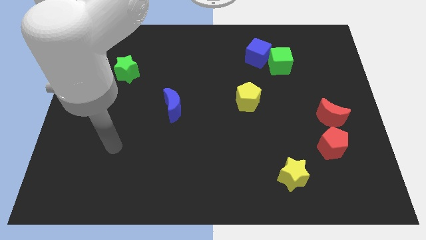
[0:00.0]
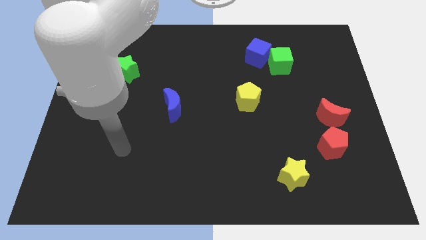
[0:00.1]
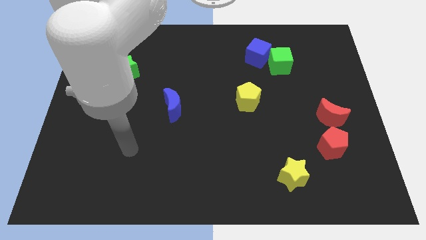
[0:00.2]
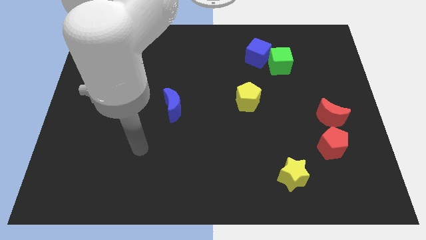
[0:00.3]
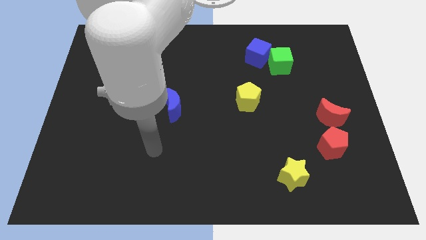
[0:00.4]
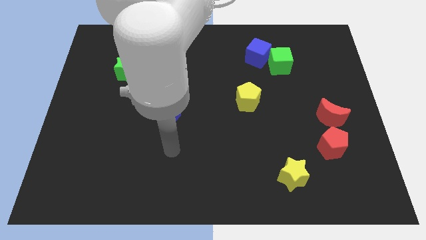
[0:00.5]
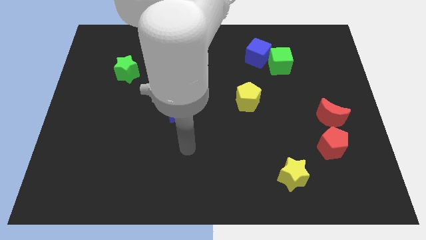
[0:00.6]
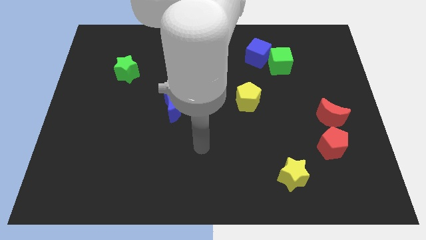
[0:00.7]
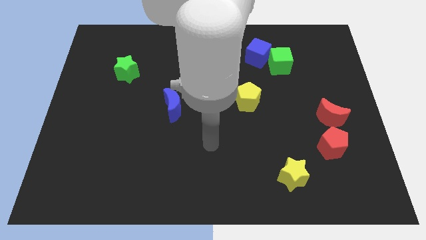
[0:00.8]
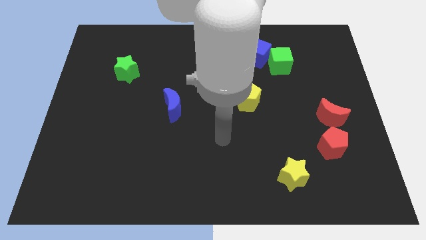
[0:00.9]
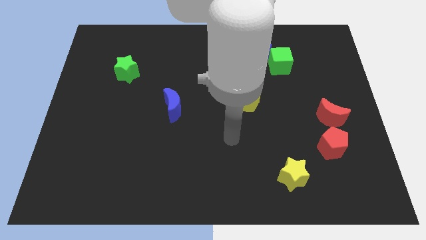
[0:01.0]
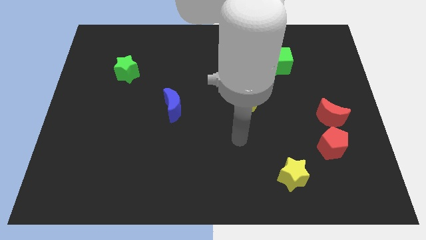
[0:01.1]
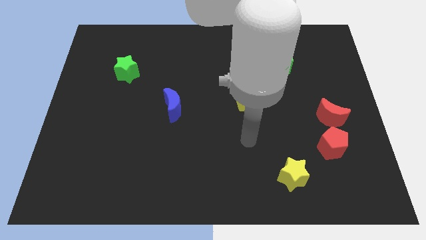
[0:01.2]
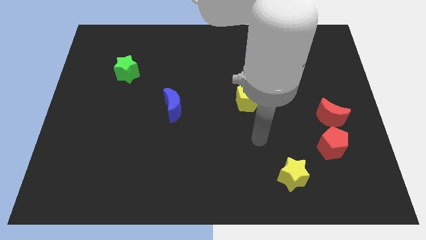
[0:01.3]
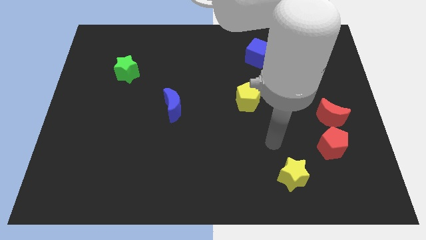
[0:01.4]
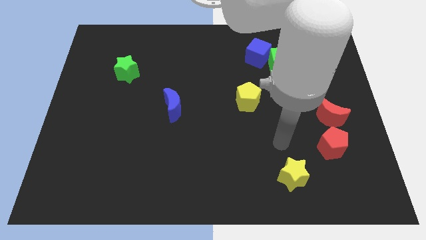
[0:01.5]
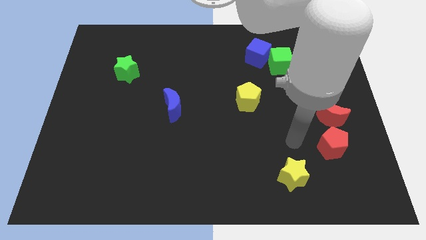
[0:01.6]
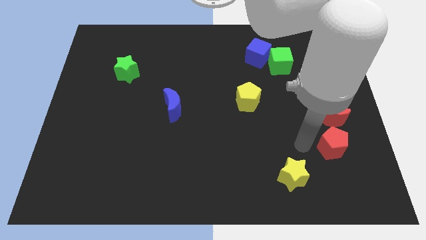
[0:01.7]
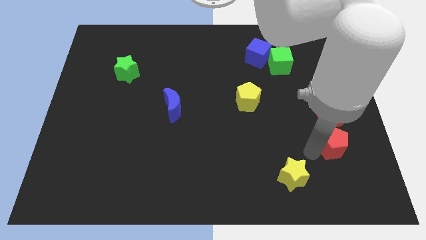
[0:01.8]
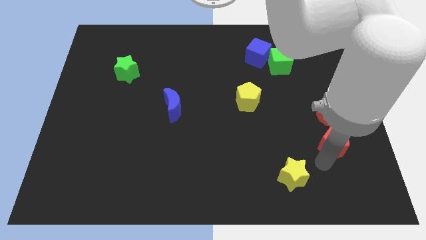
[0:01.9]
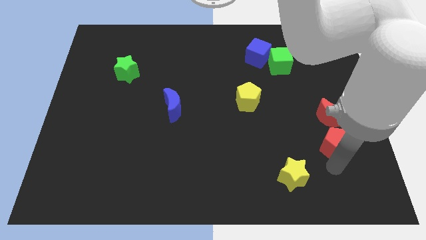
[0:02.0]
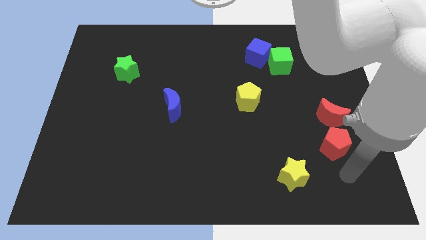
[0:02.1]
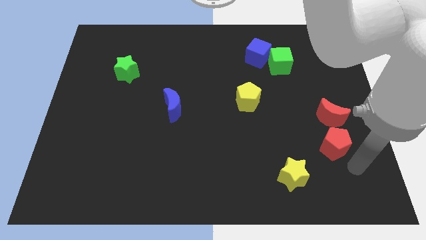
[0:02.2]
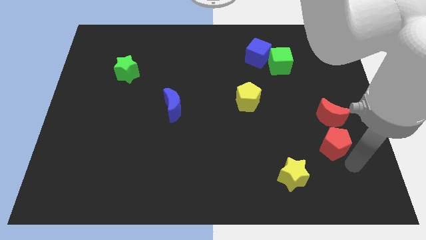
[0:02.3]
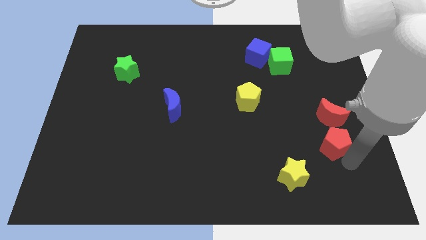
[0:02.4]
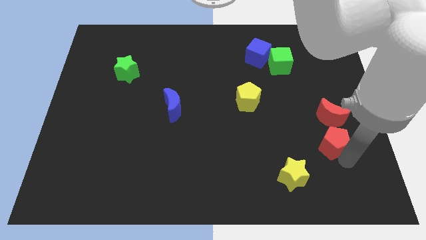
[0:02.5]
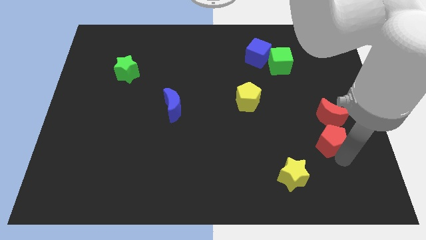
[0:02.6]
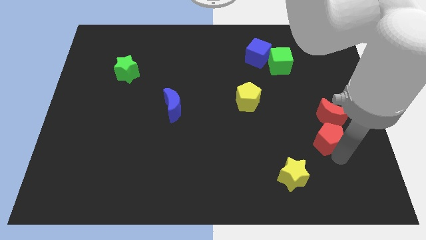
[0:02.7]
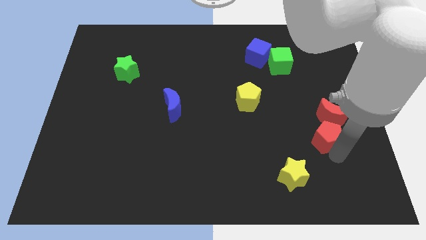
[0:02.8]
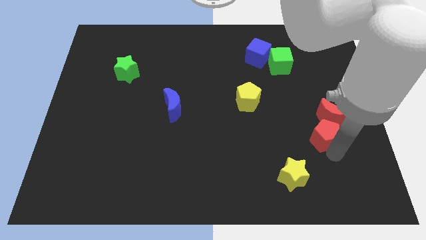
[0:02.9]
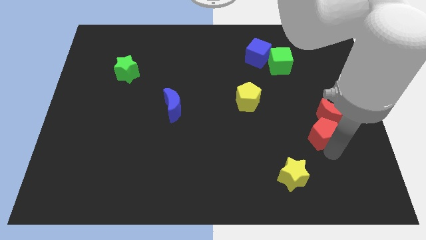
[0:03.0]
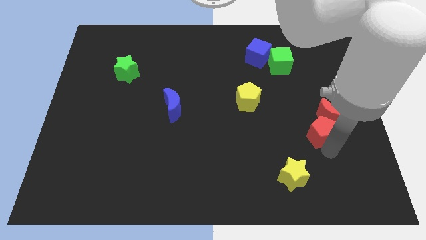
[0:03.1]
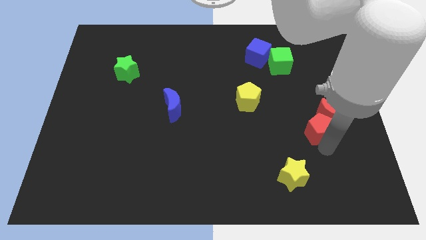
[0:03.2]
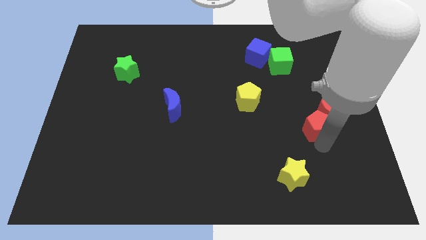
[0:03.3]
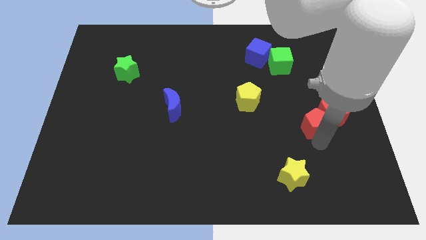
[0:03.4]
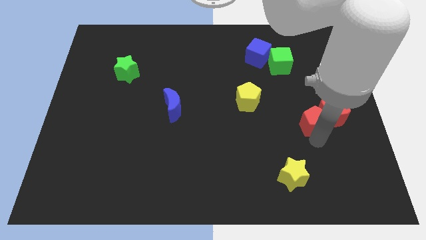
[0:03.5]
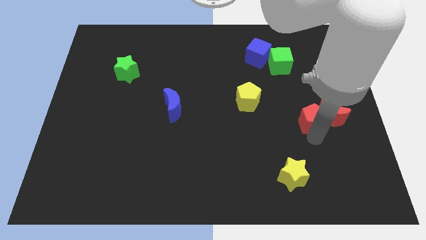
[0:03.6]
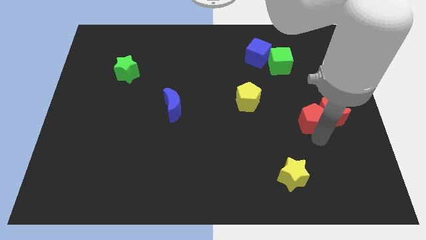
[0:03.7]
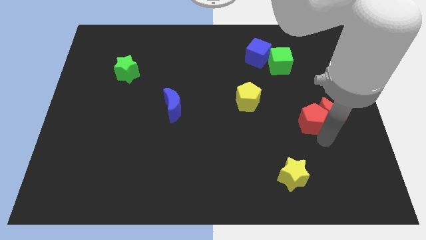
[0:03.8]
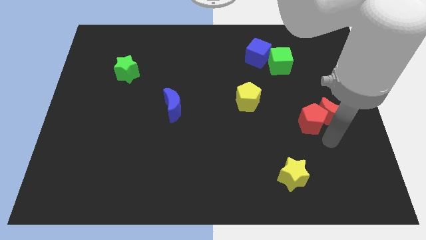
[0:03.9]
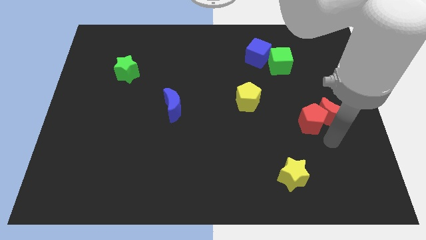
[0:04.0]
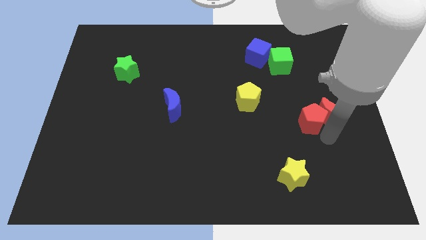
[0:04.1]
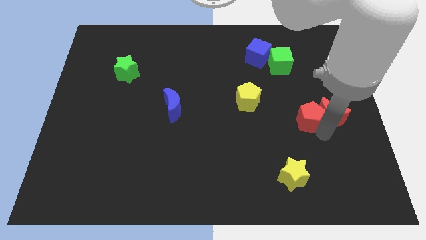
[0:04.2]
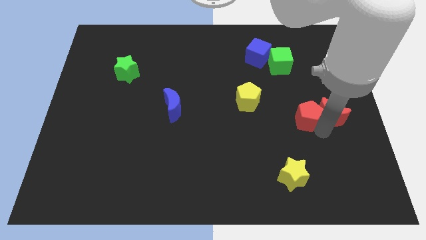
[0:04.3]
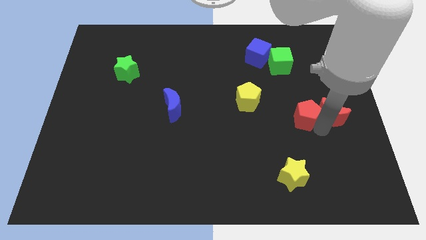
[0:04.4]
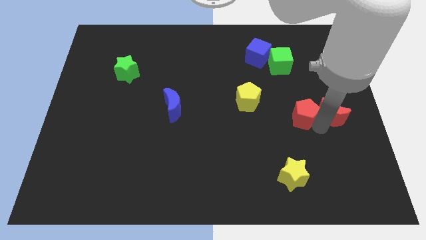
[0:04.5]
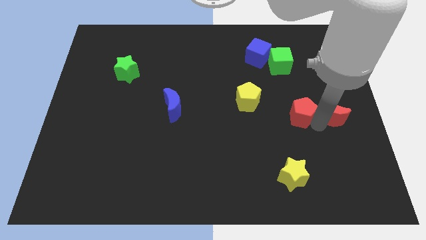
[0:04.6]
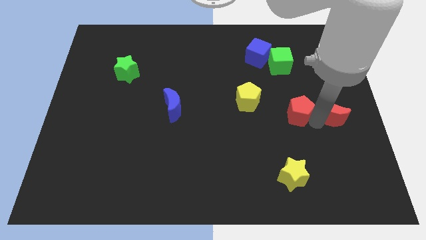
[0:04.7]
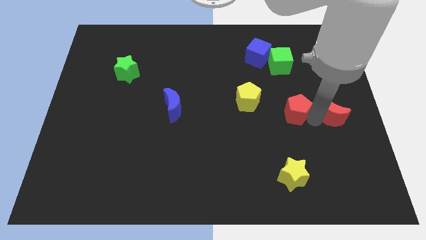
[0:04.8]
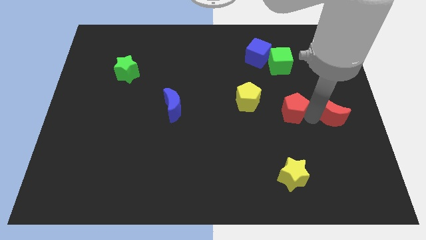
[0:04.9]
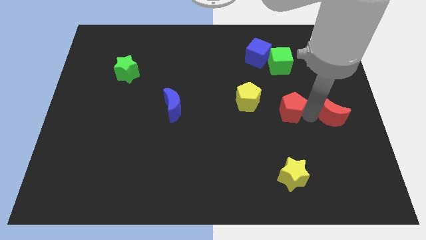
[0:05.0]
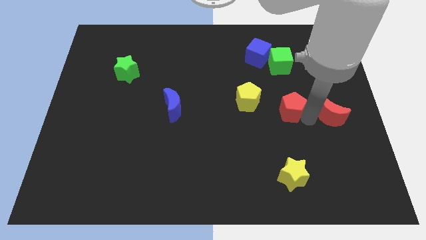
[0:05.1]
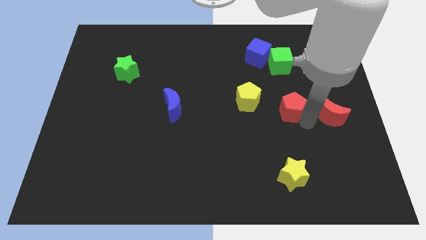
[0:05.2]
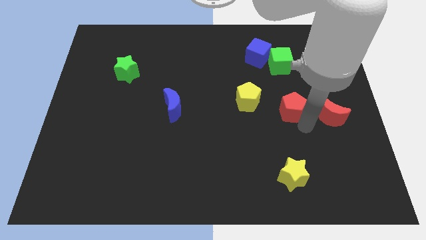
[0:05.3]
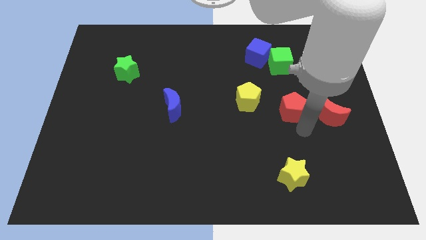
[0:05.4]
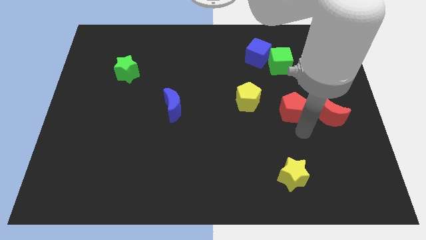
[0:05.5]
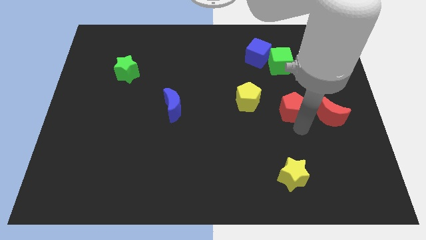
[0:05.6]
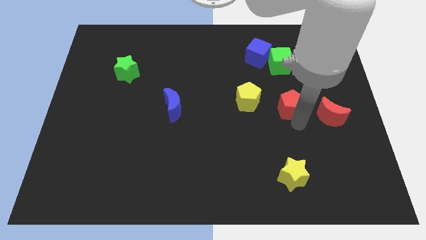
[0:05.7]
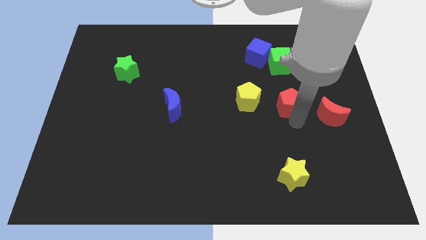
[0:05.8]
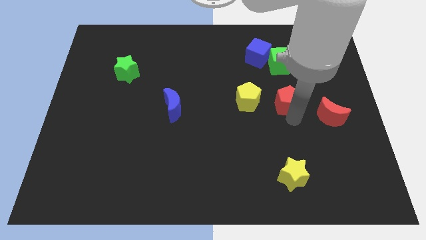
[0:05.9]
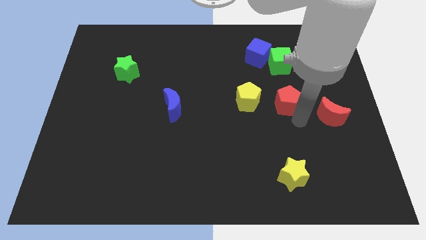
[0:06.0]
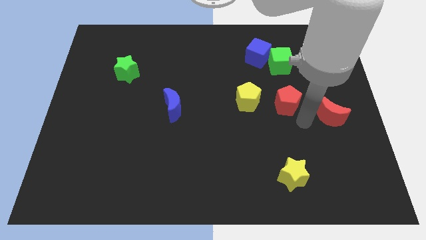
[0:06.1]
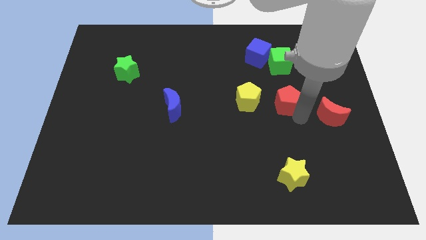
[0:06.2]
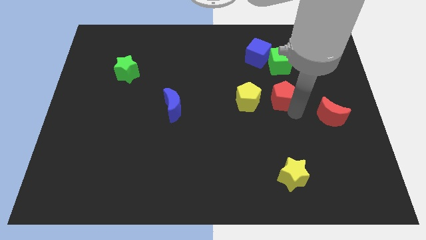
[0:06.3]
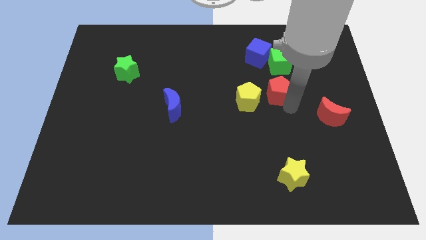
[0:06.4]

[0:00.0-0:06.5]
move the red pentagon to the top right of the yellow pentagon

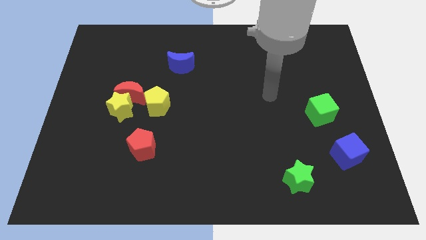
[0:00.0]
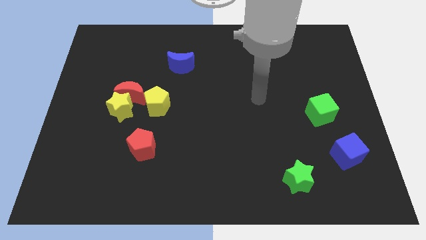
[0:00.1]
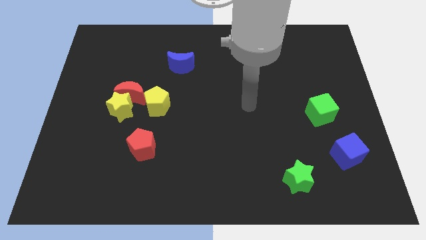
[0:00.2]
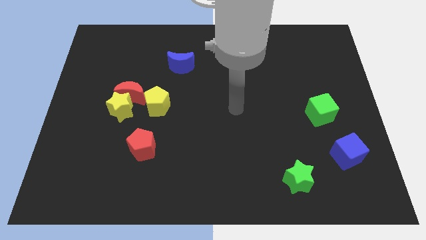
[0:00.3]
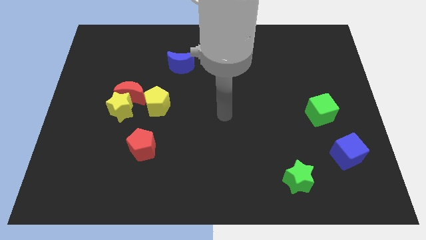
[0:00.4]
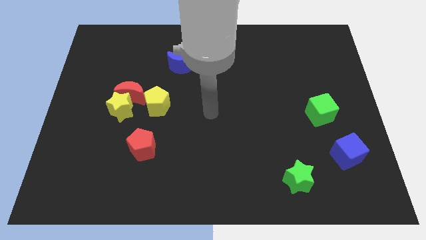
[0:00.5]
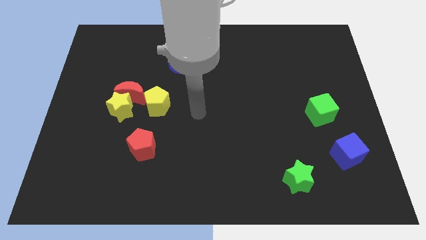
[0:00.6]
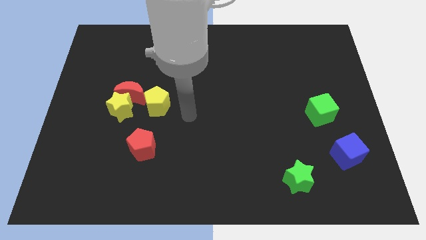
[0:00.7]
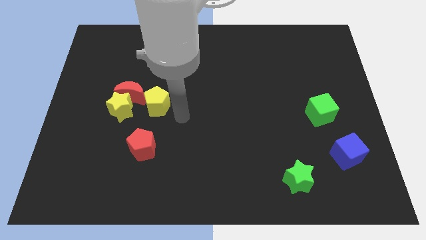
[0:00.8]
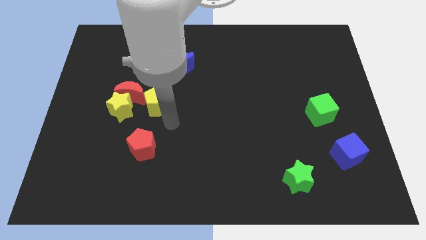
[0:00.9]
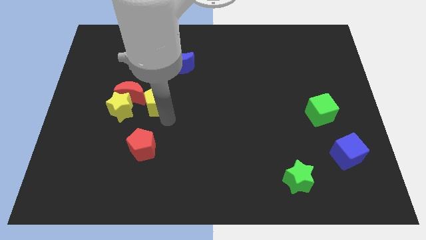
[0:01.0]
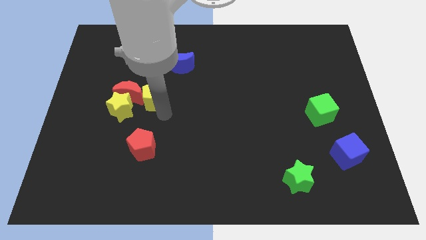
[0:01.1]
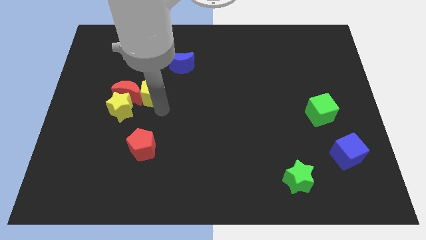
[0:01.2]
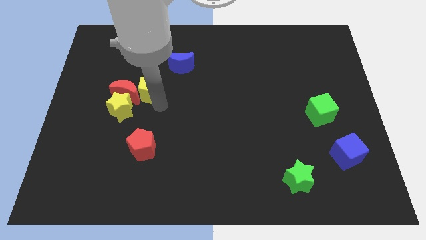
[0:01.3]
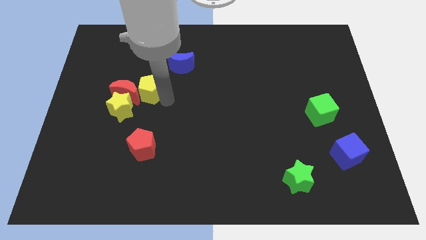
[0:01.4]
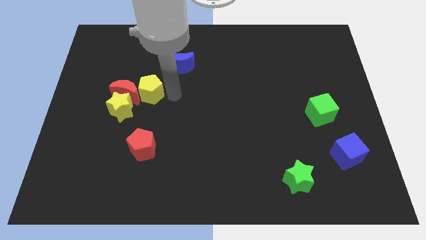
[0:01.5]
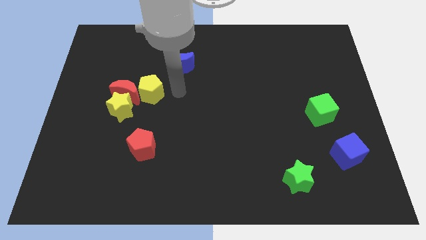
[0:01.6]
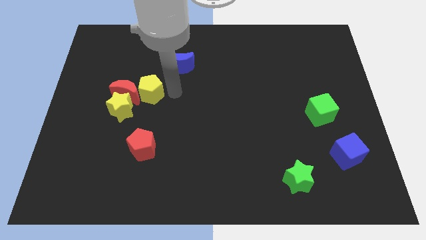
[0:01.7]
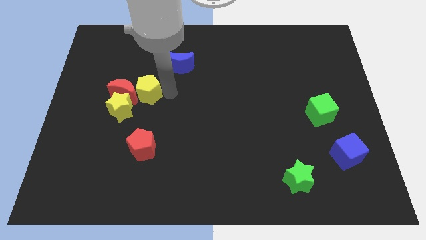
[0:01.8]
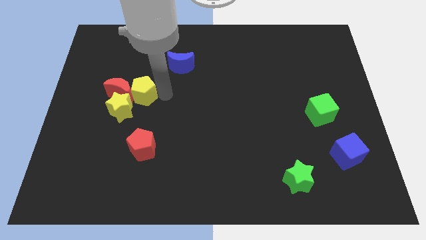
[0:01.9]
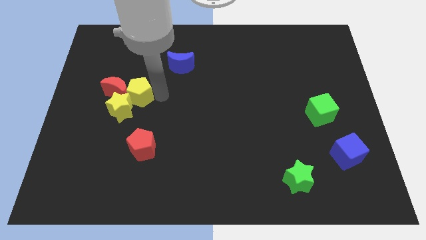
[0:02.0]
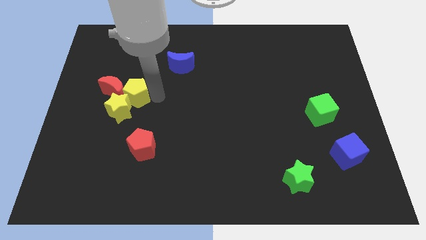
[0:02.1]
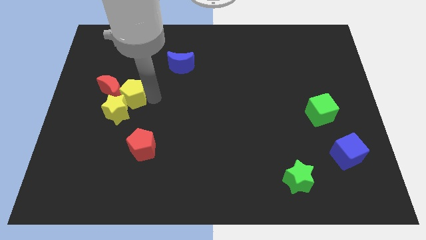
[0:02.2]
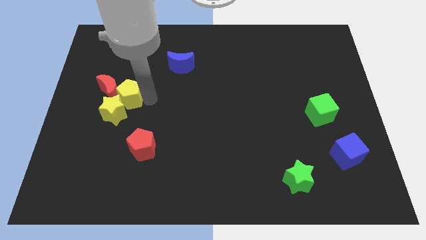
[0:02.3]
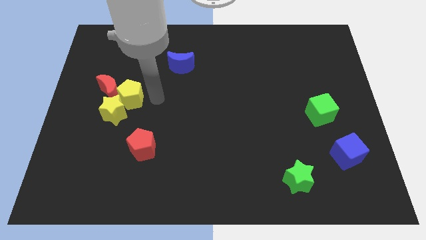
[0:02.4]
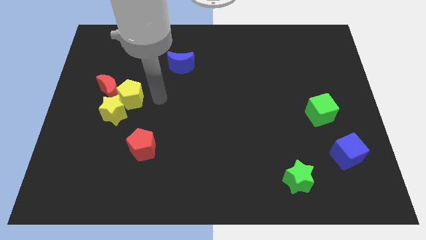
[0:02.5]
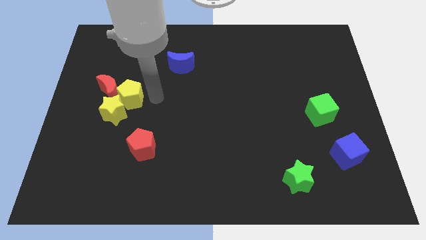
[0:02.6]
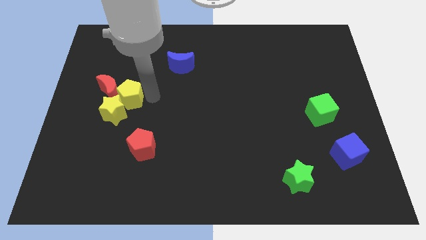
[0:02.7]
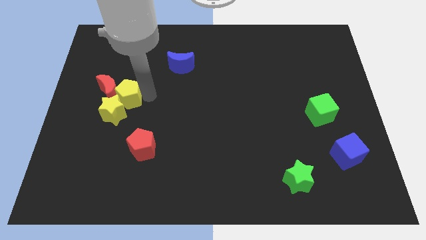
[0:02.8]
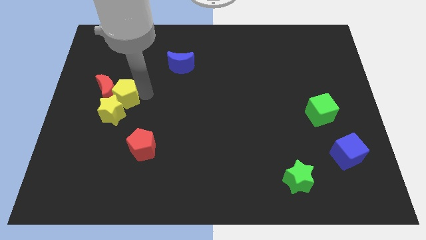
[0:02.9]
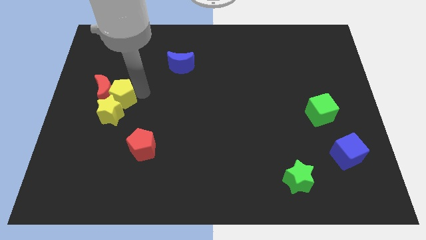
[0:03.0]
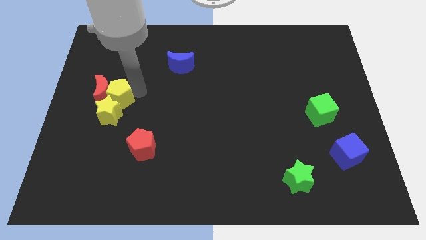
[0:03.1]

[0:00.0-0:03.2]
move the yellow pentagon to the top left of the yellow star
